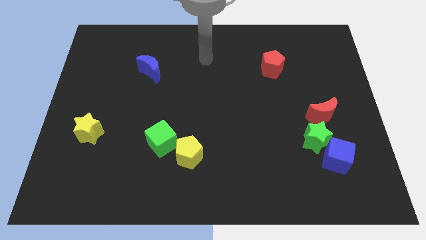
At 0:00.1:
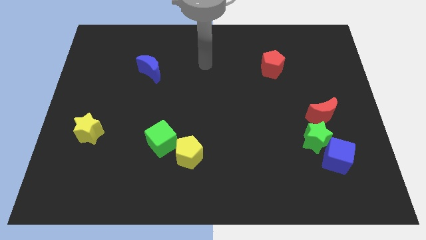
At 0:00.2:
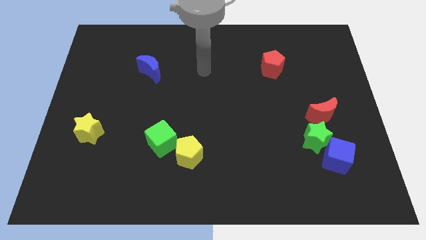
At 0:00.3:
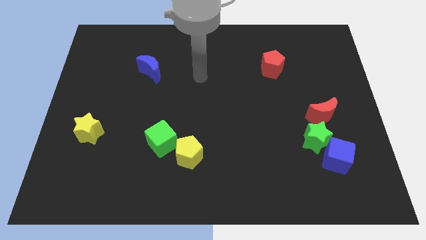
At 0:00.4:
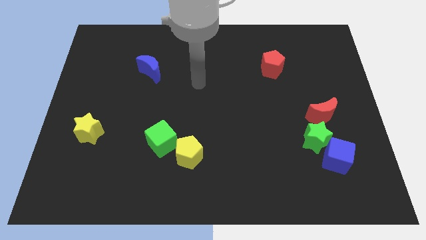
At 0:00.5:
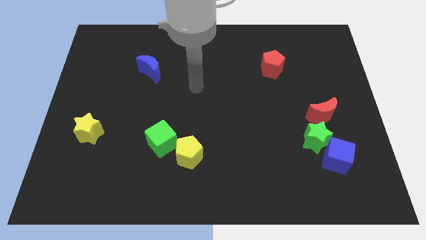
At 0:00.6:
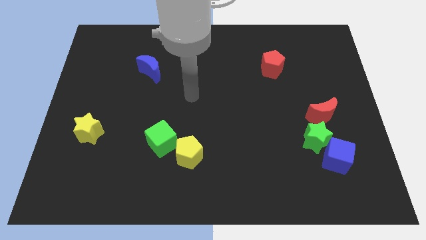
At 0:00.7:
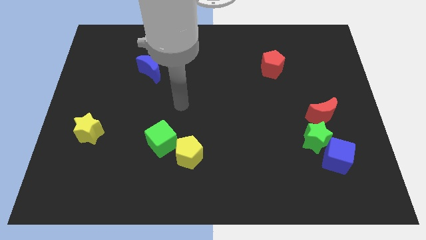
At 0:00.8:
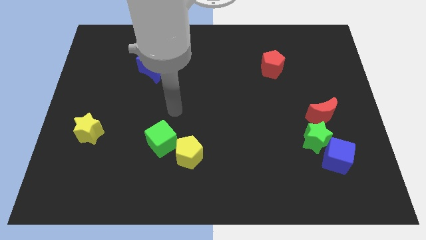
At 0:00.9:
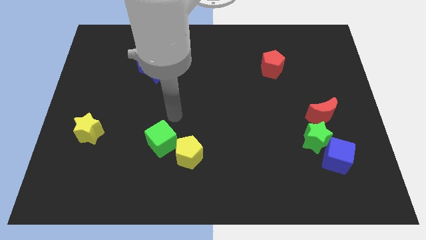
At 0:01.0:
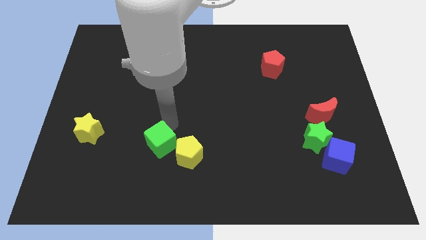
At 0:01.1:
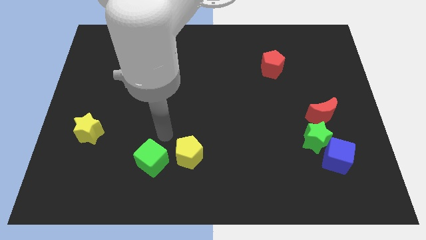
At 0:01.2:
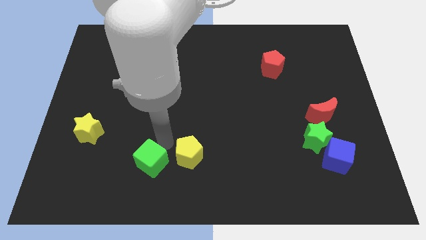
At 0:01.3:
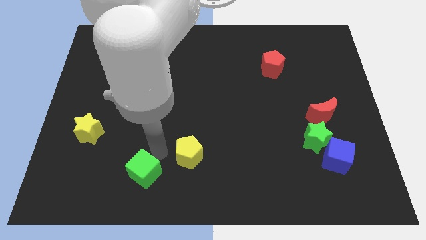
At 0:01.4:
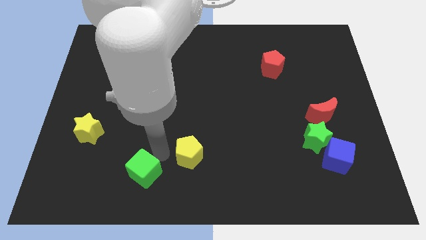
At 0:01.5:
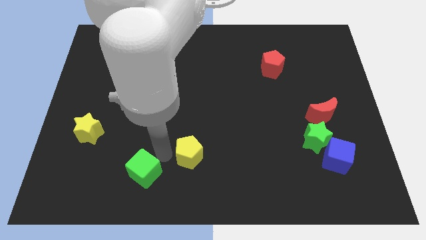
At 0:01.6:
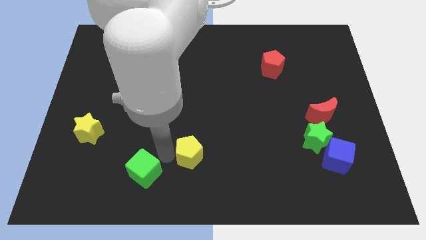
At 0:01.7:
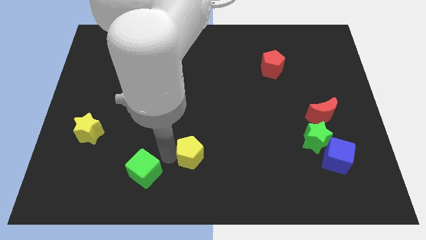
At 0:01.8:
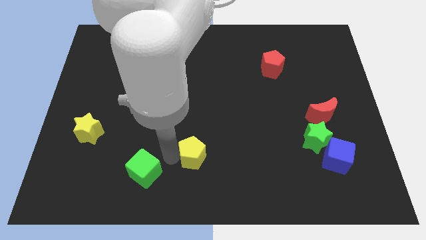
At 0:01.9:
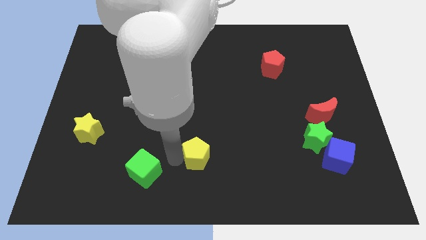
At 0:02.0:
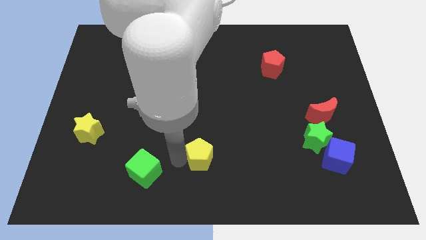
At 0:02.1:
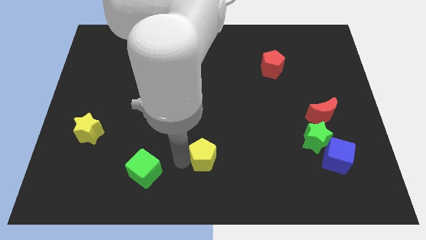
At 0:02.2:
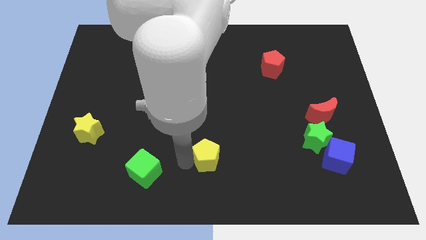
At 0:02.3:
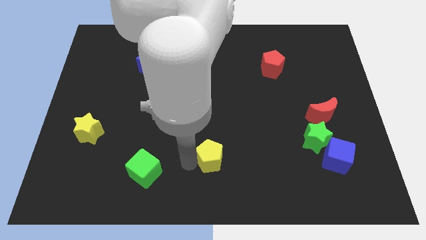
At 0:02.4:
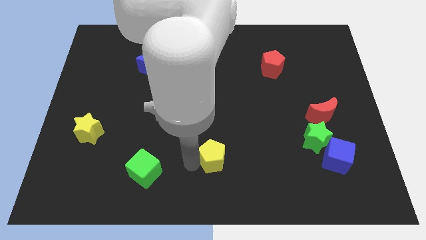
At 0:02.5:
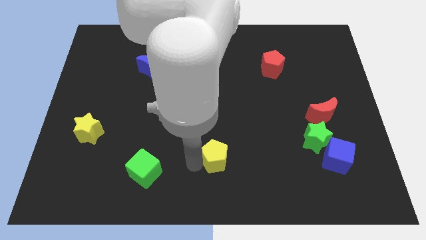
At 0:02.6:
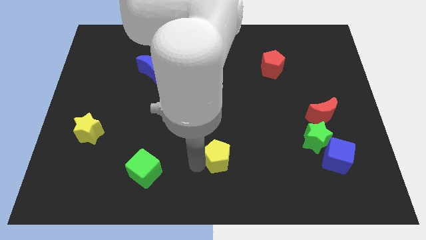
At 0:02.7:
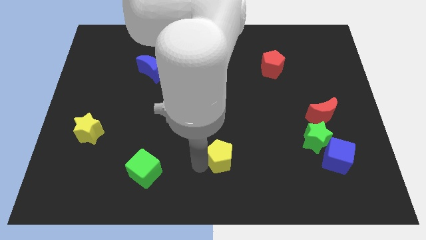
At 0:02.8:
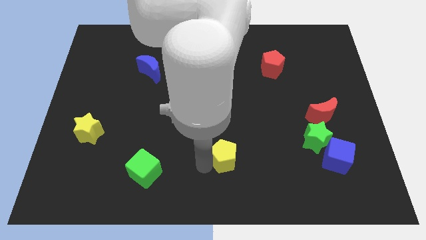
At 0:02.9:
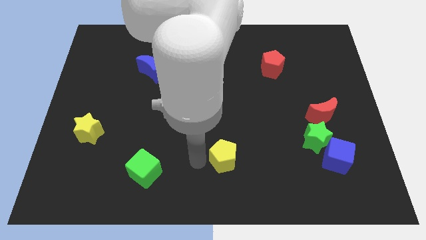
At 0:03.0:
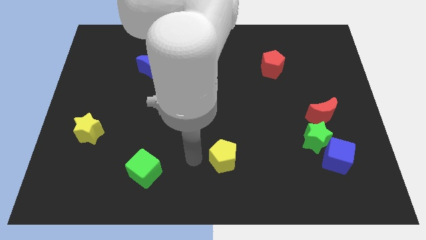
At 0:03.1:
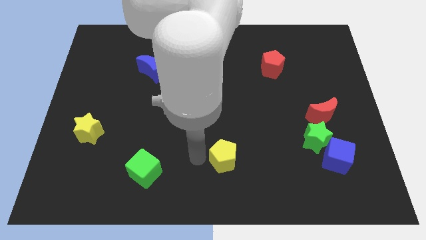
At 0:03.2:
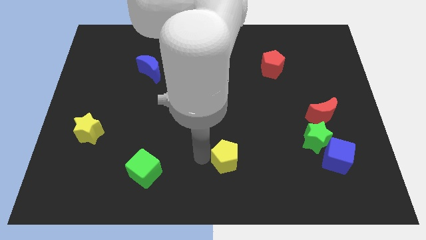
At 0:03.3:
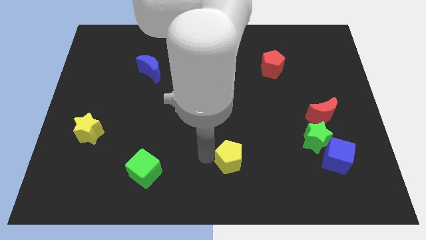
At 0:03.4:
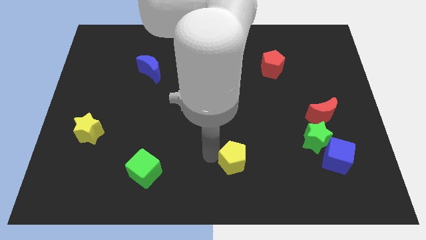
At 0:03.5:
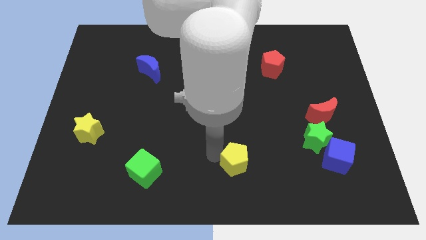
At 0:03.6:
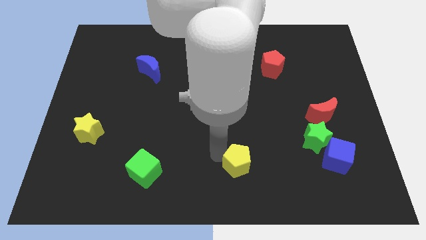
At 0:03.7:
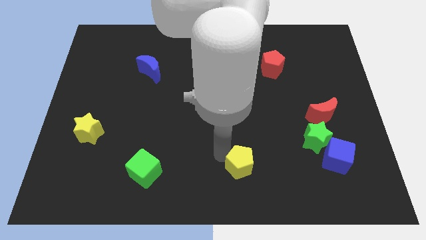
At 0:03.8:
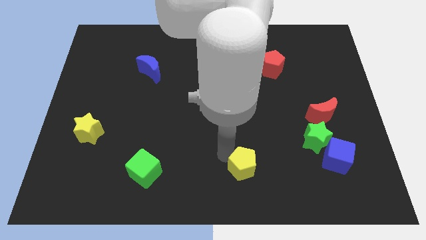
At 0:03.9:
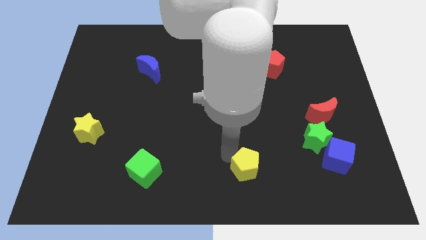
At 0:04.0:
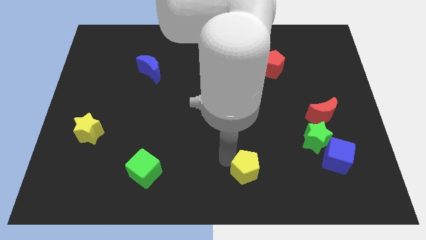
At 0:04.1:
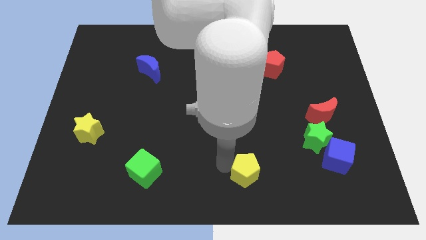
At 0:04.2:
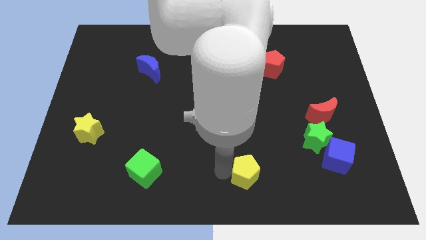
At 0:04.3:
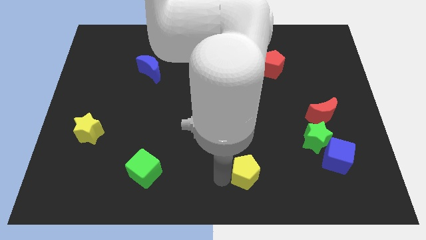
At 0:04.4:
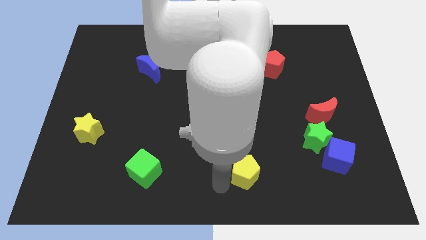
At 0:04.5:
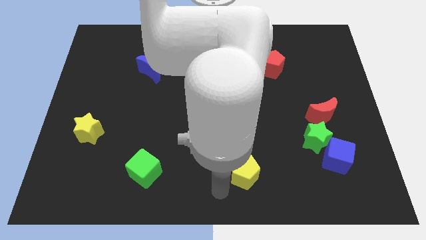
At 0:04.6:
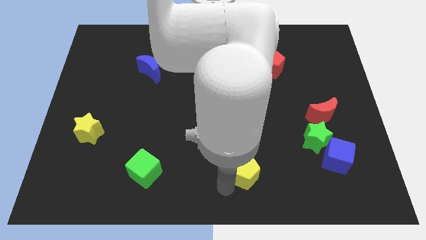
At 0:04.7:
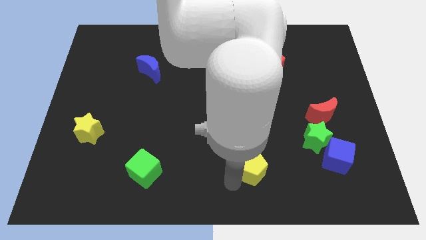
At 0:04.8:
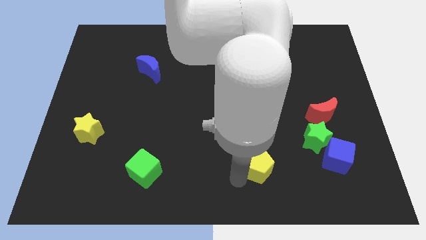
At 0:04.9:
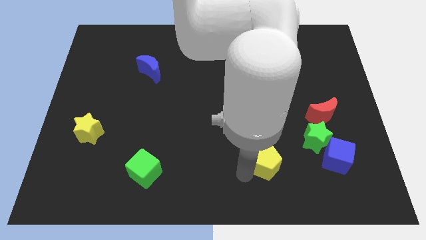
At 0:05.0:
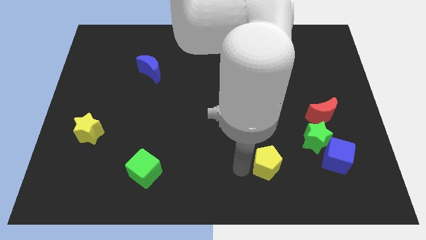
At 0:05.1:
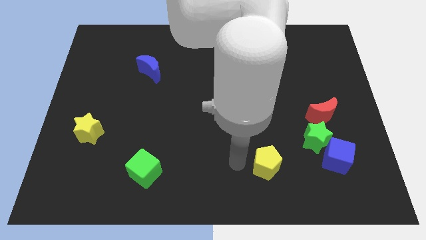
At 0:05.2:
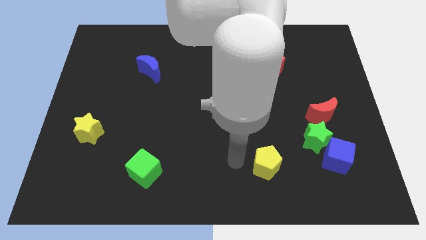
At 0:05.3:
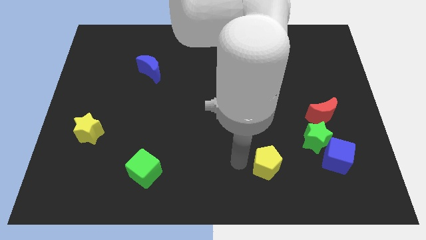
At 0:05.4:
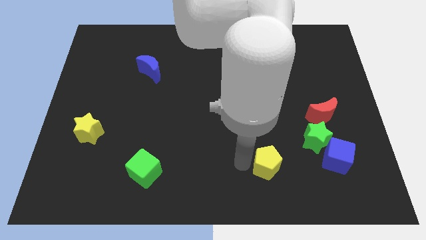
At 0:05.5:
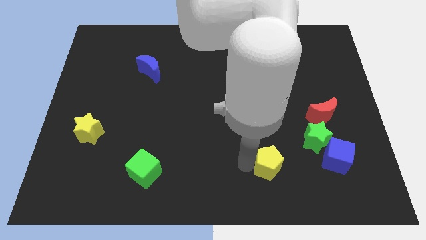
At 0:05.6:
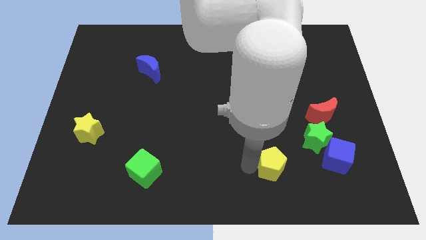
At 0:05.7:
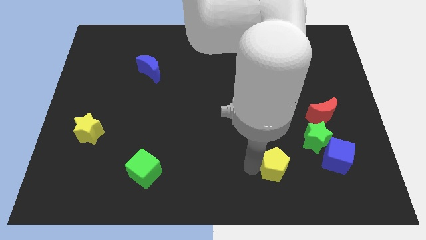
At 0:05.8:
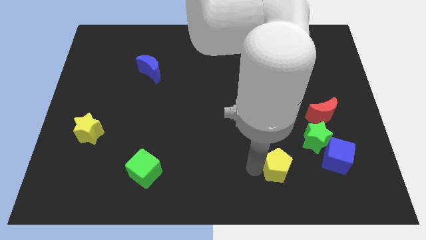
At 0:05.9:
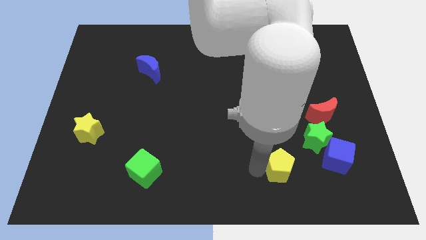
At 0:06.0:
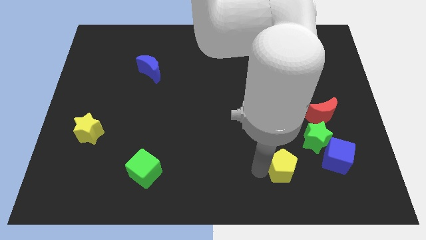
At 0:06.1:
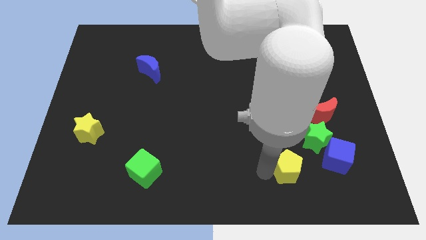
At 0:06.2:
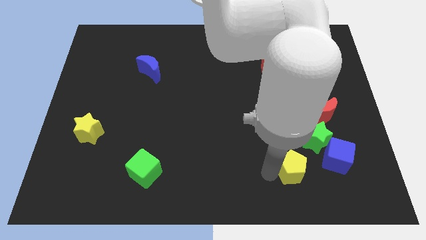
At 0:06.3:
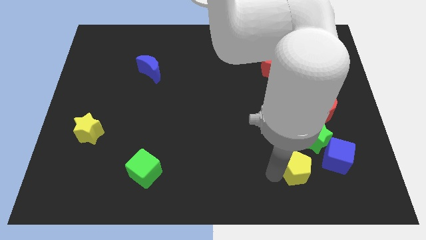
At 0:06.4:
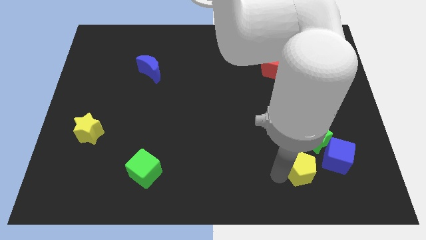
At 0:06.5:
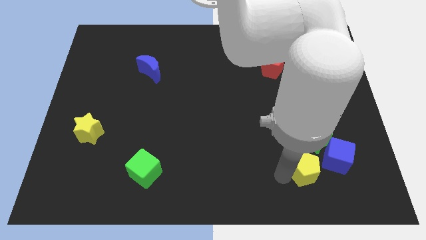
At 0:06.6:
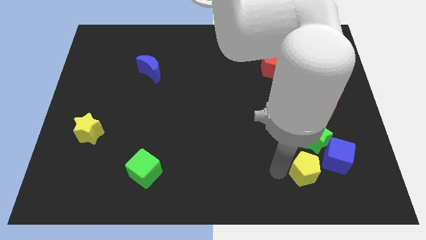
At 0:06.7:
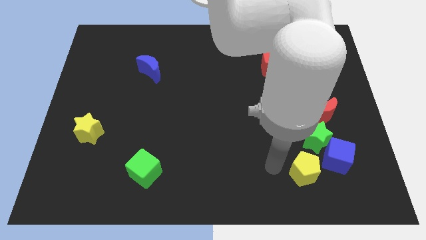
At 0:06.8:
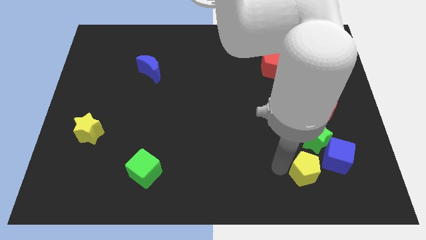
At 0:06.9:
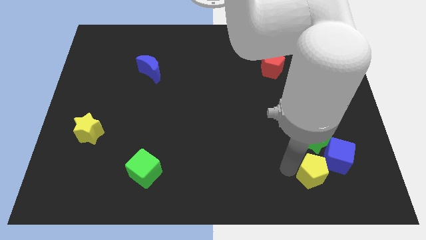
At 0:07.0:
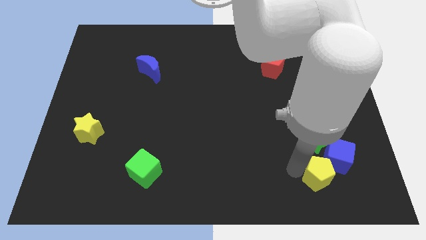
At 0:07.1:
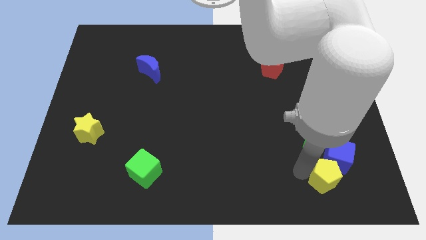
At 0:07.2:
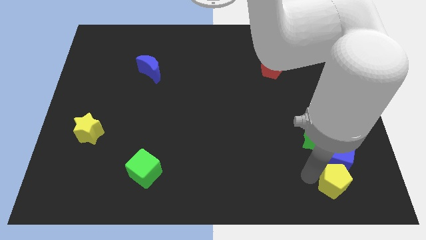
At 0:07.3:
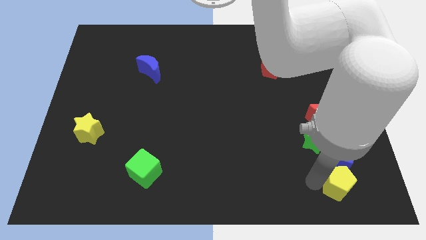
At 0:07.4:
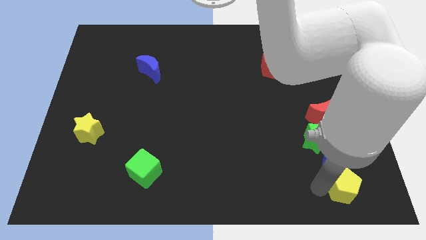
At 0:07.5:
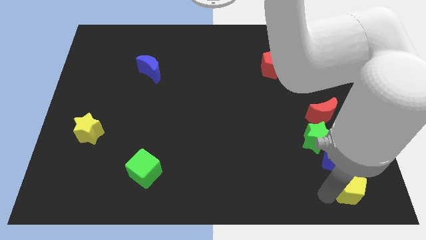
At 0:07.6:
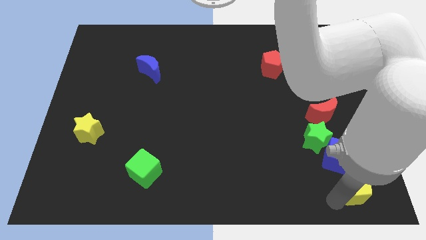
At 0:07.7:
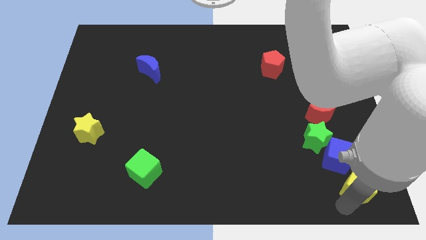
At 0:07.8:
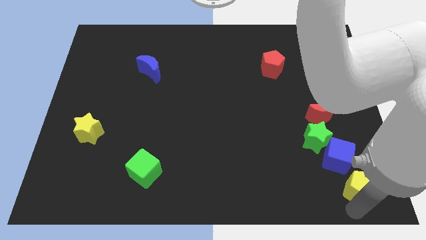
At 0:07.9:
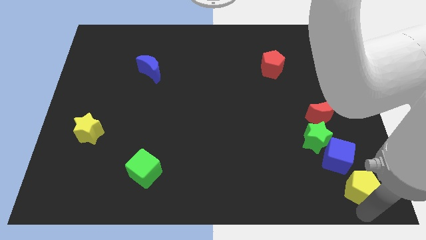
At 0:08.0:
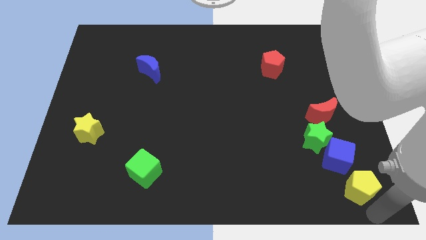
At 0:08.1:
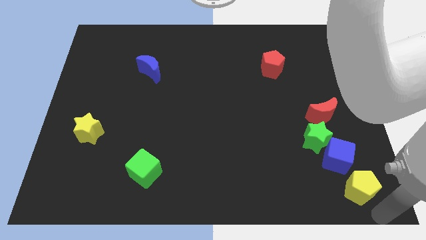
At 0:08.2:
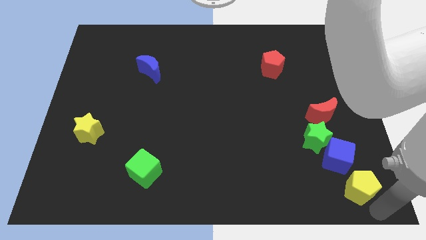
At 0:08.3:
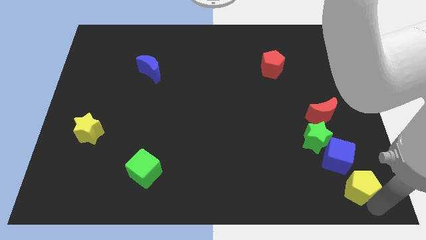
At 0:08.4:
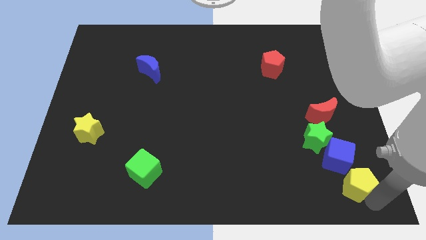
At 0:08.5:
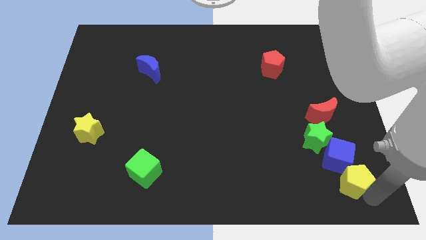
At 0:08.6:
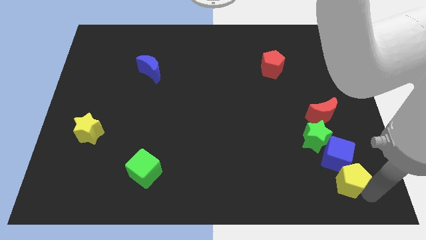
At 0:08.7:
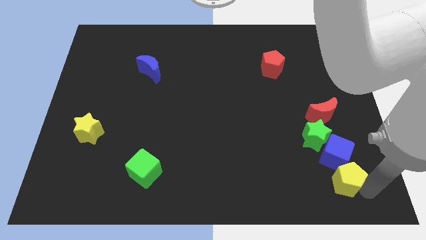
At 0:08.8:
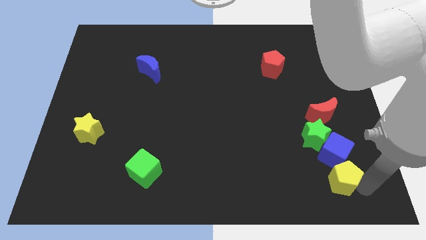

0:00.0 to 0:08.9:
slide the yellow pentagon below the red moon
